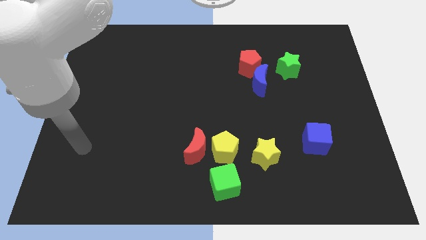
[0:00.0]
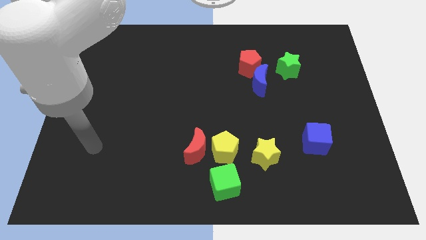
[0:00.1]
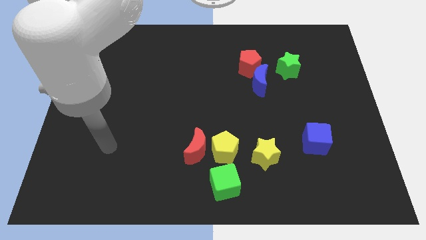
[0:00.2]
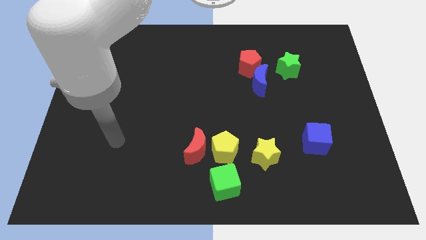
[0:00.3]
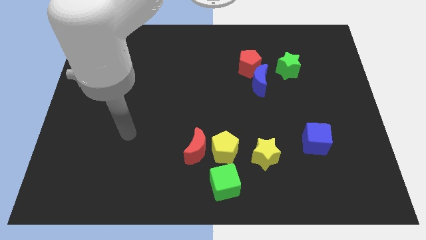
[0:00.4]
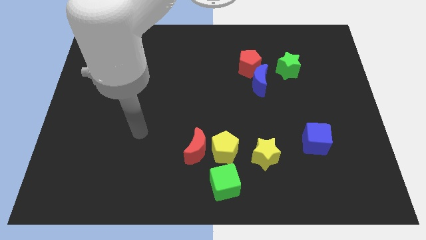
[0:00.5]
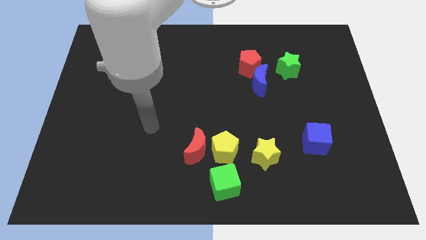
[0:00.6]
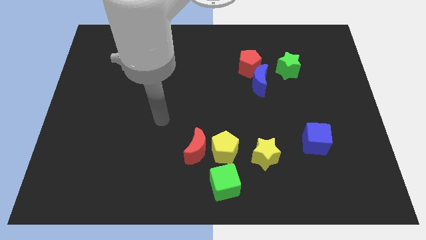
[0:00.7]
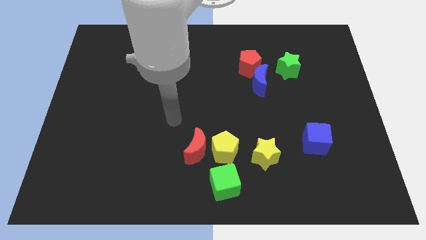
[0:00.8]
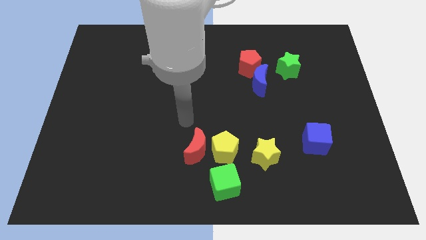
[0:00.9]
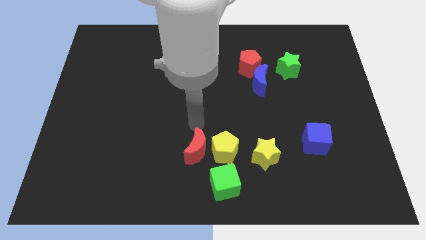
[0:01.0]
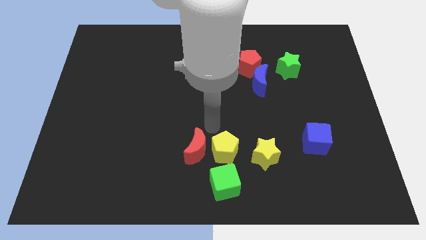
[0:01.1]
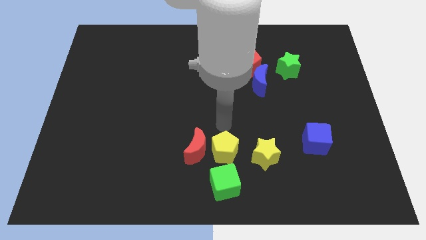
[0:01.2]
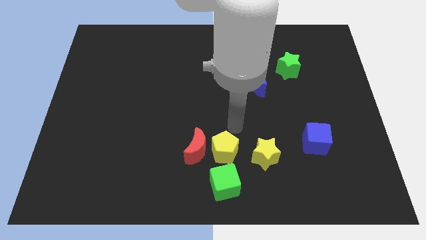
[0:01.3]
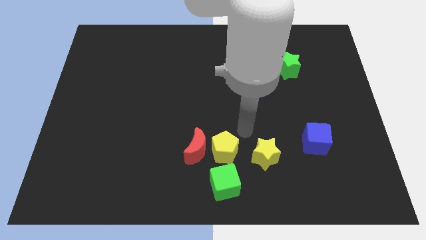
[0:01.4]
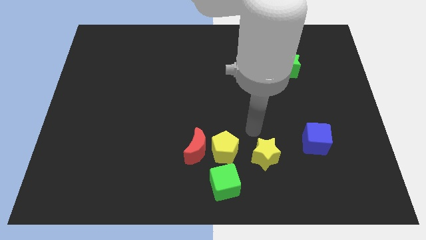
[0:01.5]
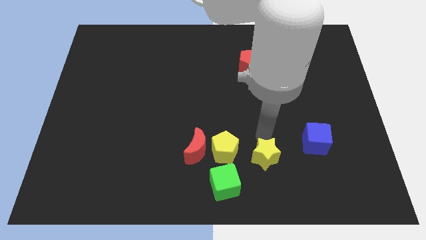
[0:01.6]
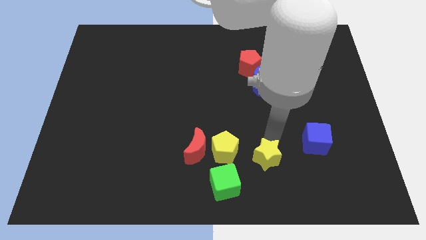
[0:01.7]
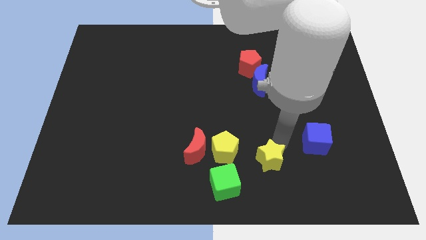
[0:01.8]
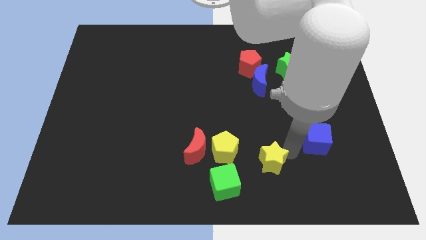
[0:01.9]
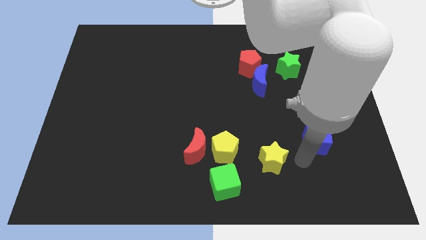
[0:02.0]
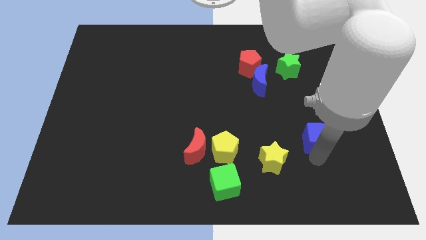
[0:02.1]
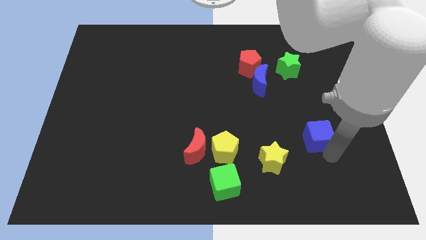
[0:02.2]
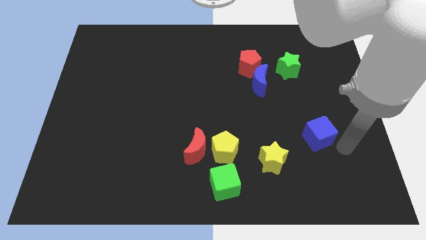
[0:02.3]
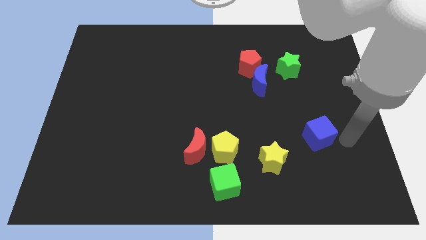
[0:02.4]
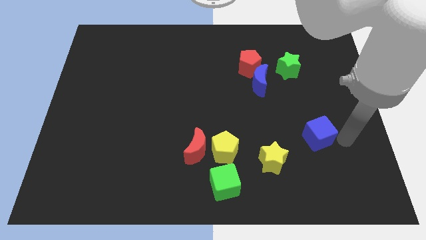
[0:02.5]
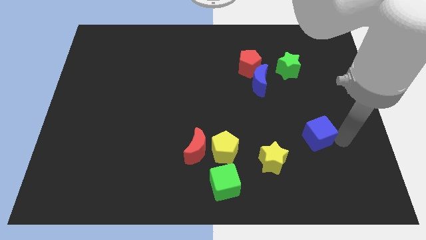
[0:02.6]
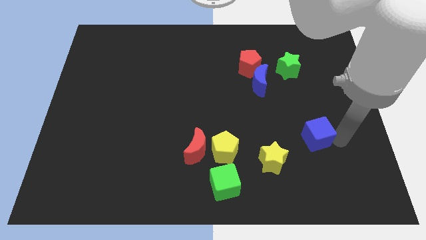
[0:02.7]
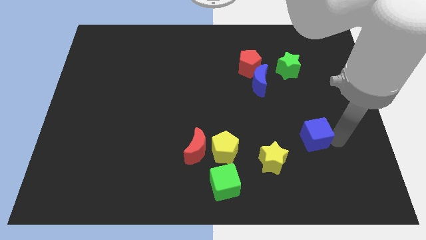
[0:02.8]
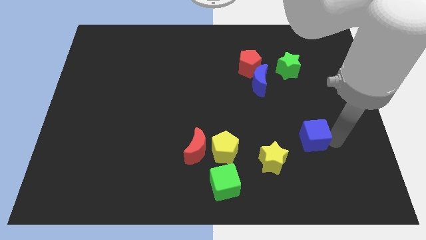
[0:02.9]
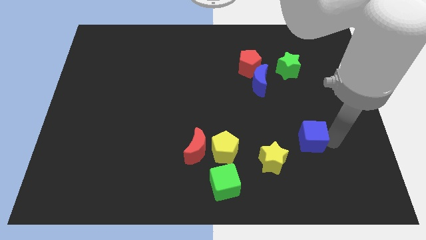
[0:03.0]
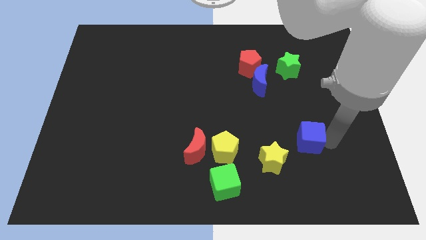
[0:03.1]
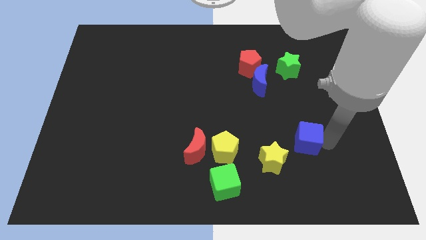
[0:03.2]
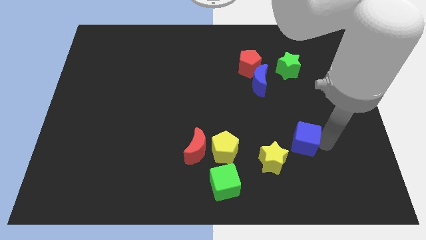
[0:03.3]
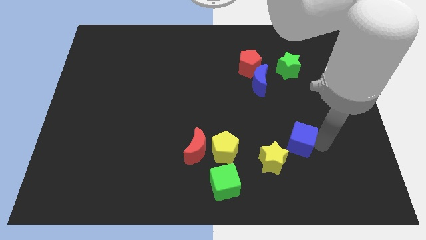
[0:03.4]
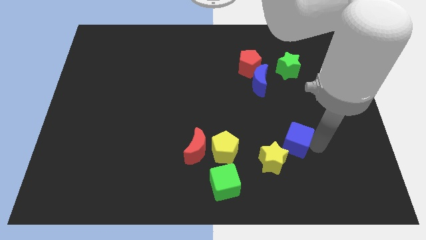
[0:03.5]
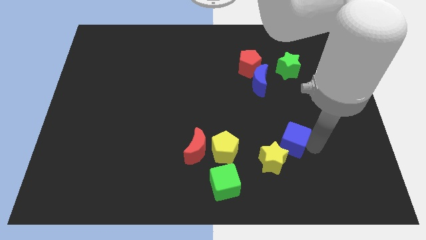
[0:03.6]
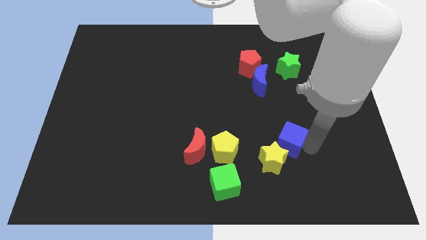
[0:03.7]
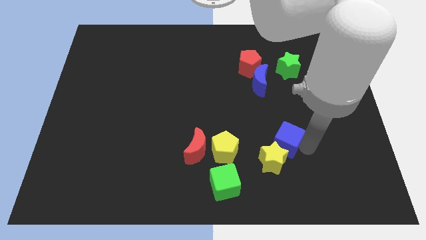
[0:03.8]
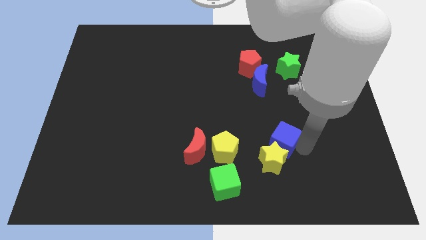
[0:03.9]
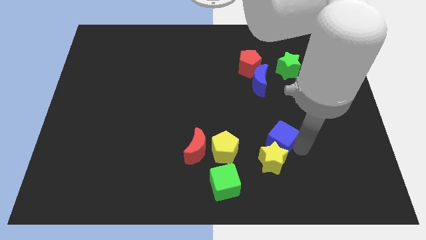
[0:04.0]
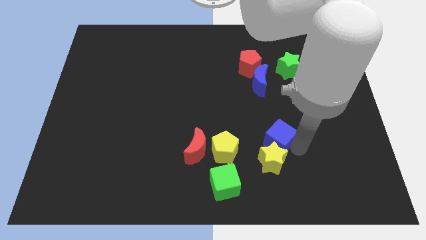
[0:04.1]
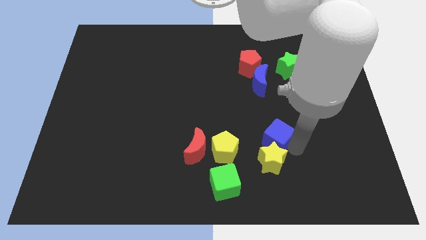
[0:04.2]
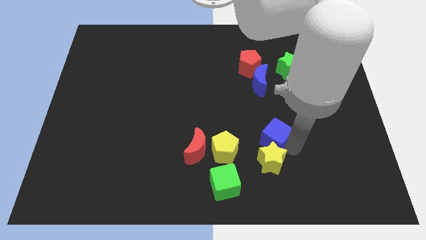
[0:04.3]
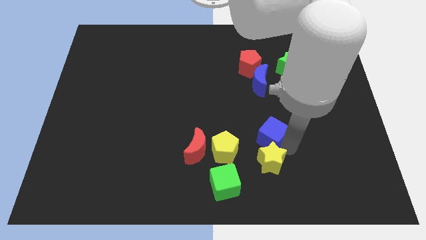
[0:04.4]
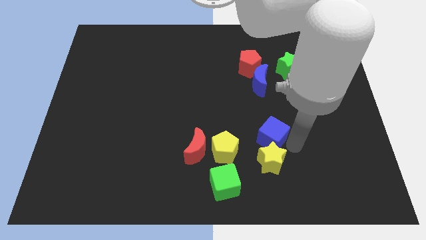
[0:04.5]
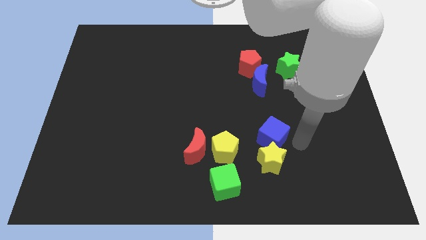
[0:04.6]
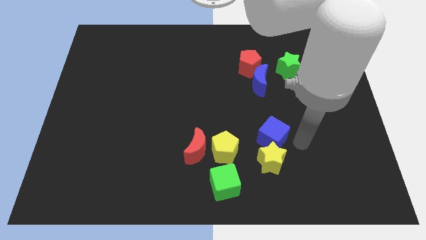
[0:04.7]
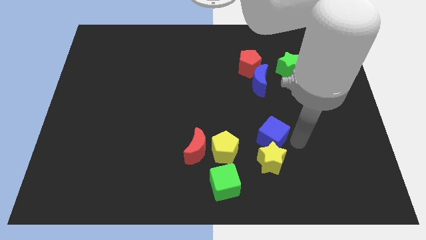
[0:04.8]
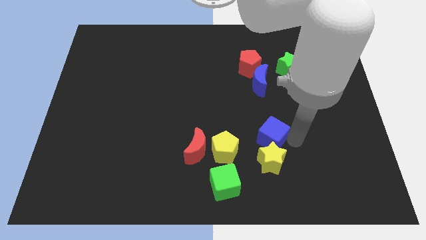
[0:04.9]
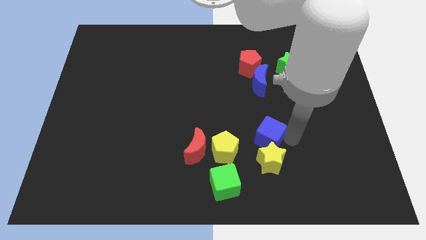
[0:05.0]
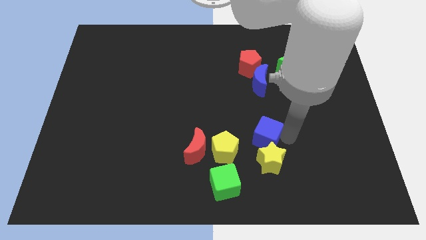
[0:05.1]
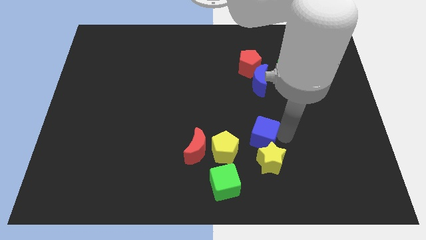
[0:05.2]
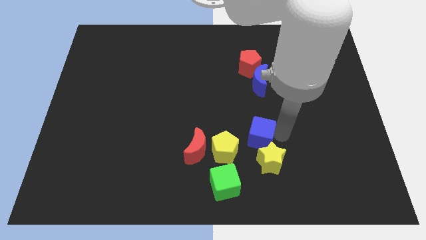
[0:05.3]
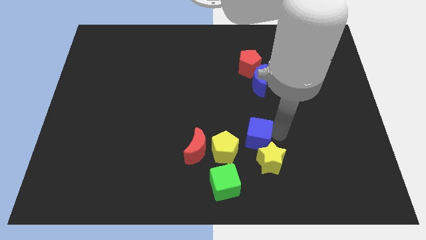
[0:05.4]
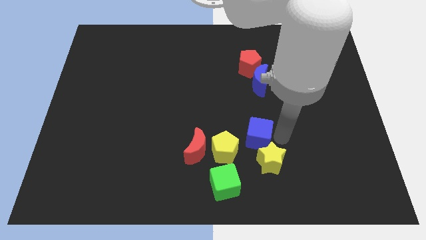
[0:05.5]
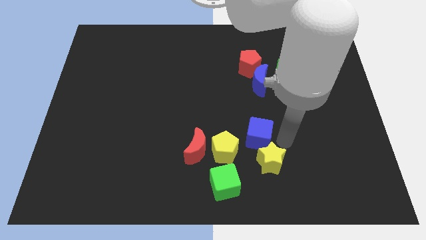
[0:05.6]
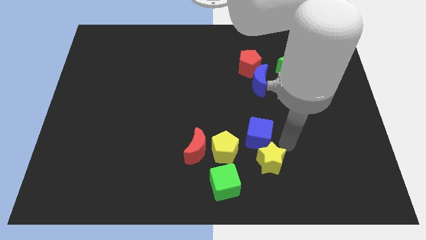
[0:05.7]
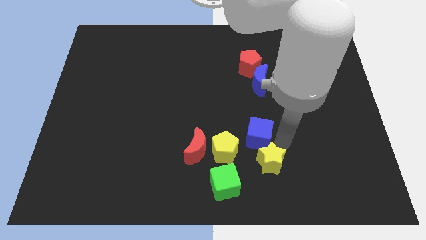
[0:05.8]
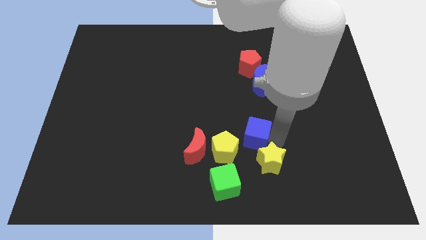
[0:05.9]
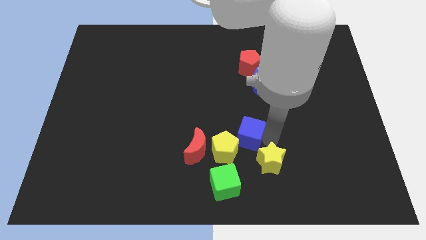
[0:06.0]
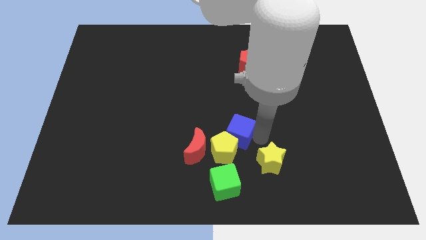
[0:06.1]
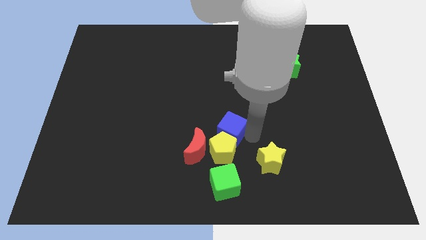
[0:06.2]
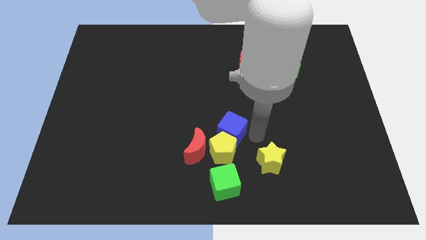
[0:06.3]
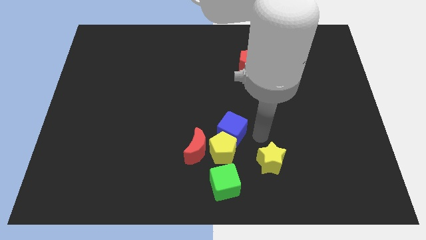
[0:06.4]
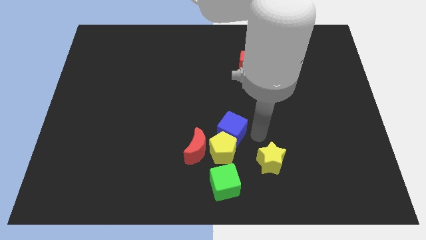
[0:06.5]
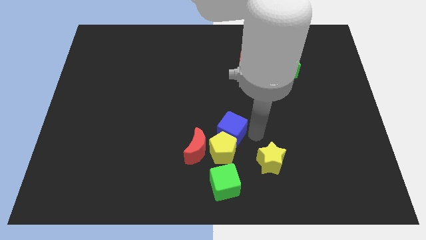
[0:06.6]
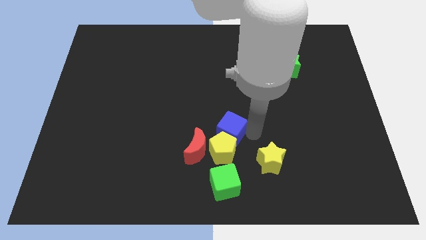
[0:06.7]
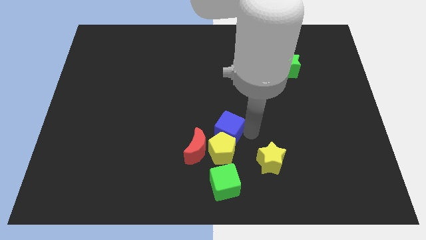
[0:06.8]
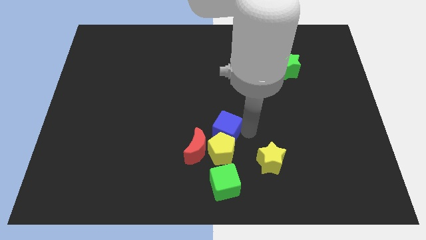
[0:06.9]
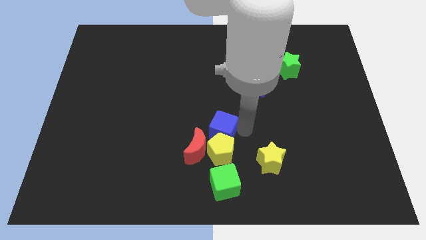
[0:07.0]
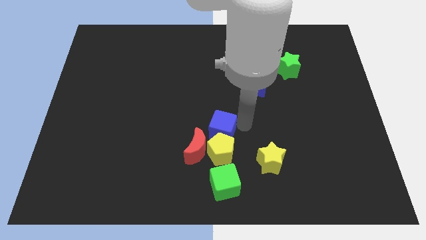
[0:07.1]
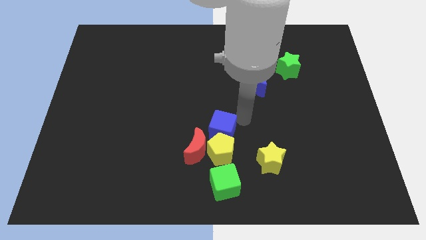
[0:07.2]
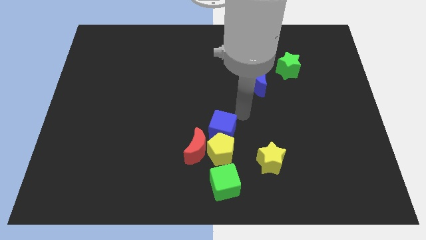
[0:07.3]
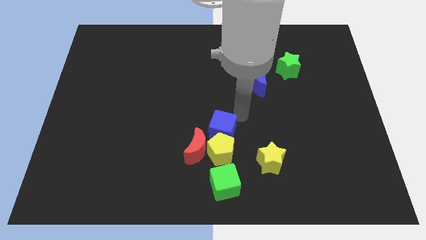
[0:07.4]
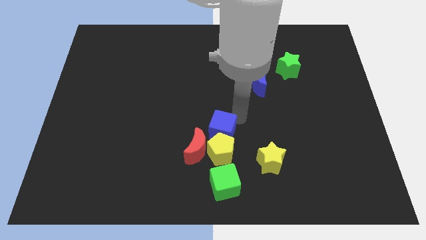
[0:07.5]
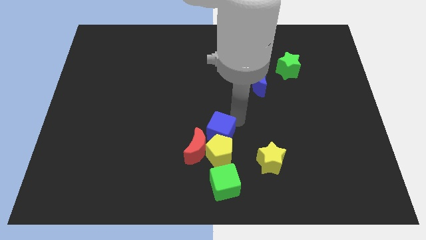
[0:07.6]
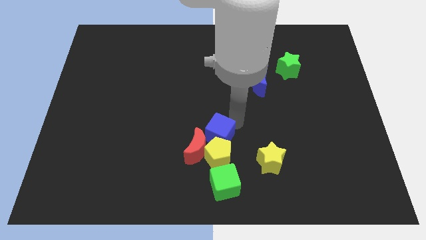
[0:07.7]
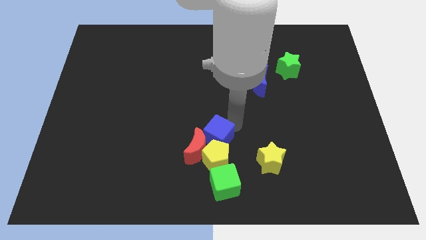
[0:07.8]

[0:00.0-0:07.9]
push the blue cube to the red moon
